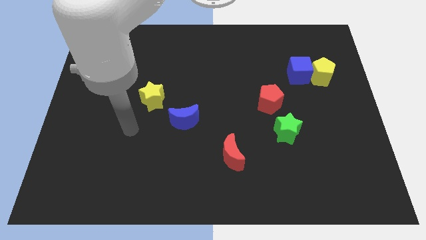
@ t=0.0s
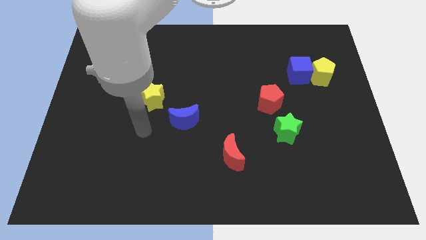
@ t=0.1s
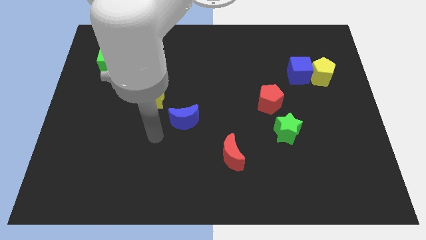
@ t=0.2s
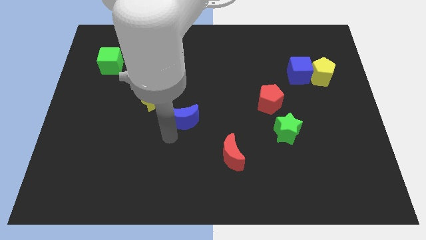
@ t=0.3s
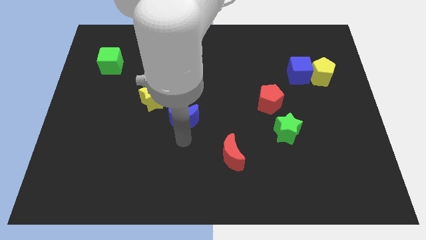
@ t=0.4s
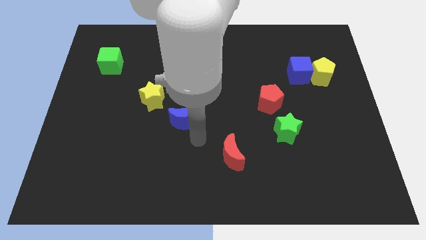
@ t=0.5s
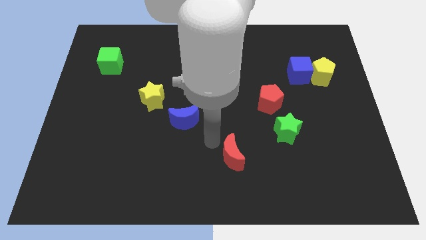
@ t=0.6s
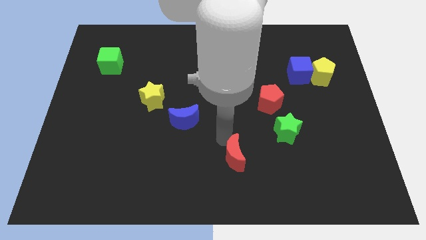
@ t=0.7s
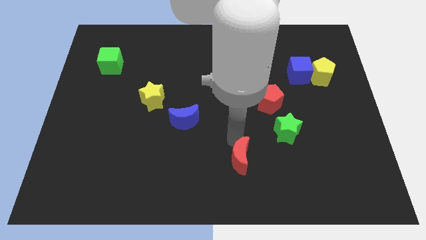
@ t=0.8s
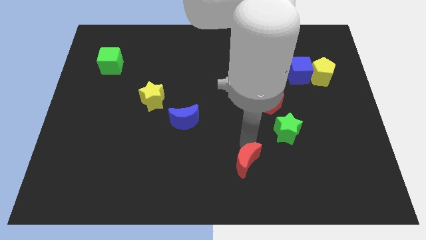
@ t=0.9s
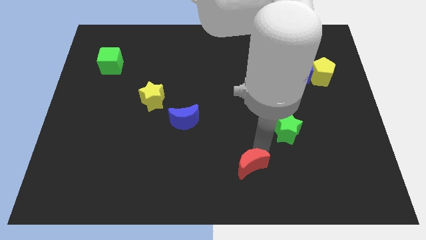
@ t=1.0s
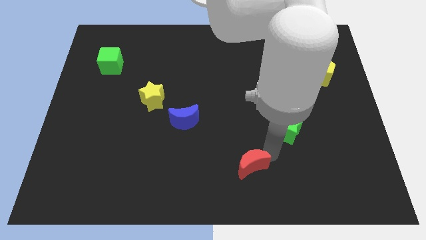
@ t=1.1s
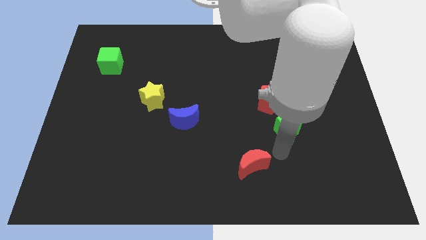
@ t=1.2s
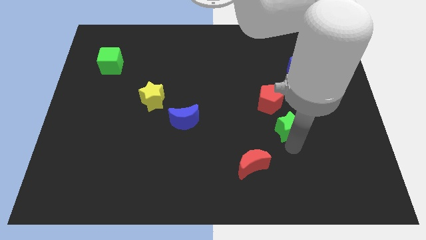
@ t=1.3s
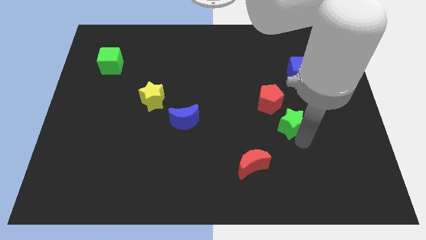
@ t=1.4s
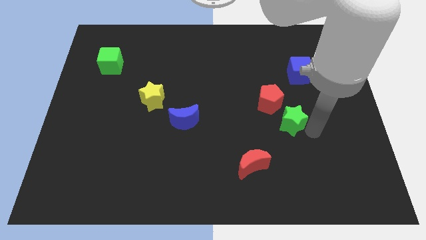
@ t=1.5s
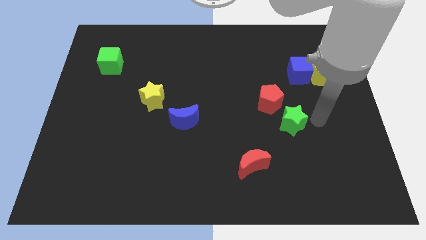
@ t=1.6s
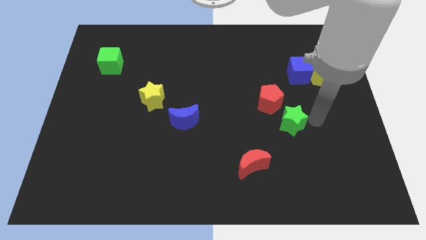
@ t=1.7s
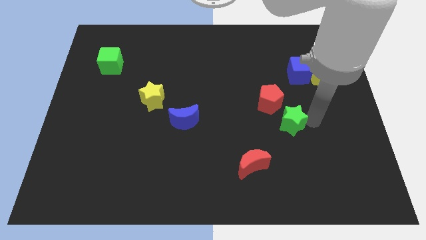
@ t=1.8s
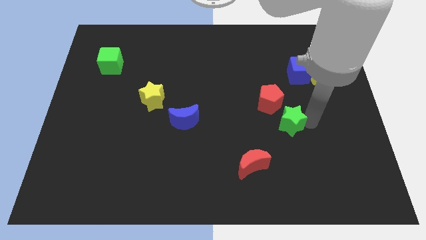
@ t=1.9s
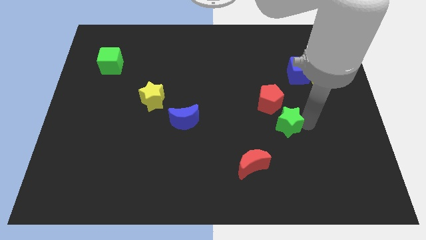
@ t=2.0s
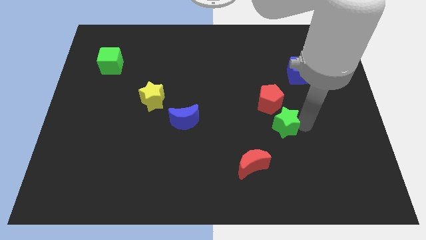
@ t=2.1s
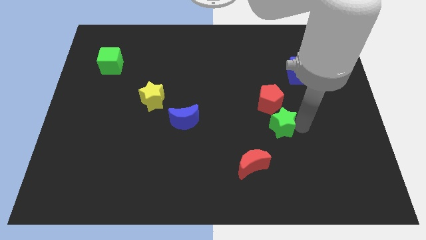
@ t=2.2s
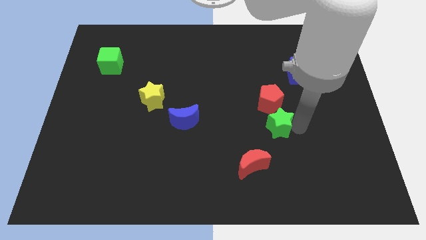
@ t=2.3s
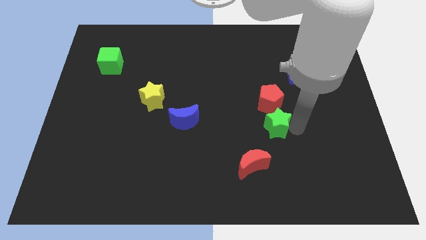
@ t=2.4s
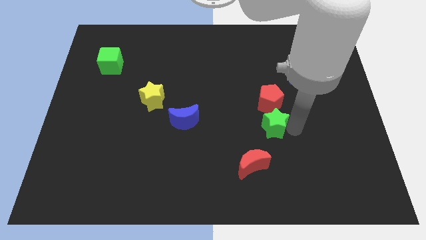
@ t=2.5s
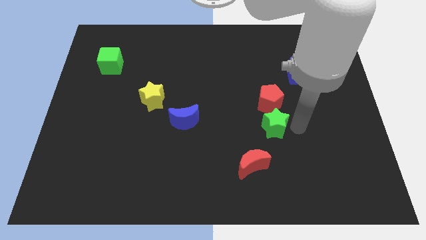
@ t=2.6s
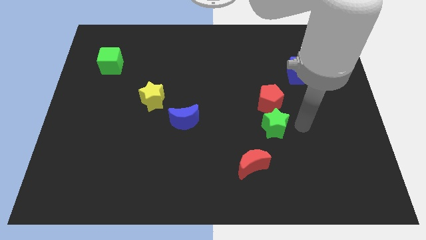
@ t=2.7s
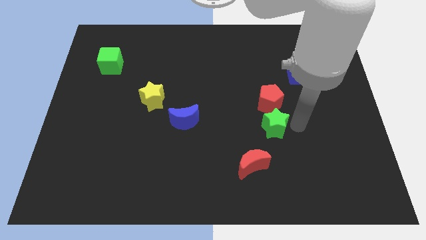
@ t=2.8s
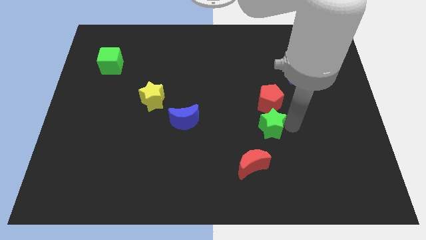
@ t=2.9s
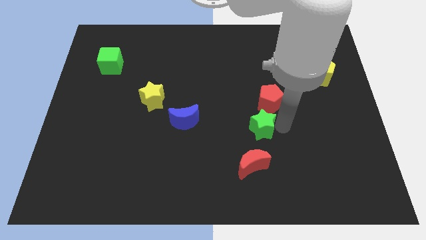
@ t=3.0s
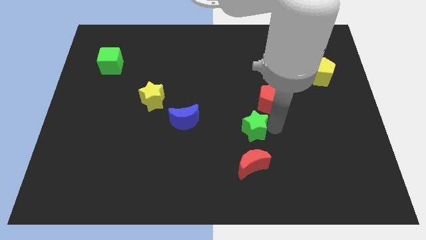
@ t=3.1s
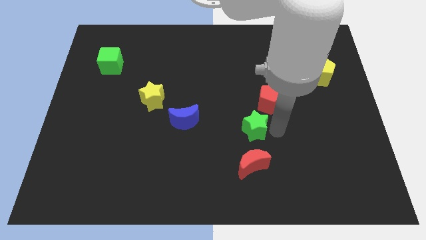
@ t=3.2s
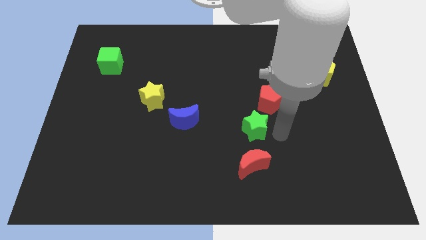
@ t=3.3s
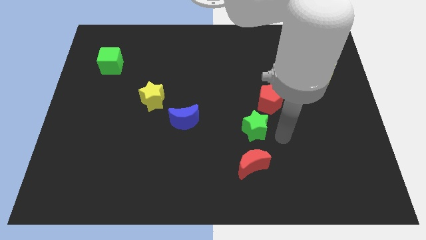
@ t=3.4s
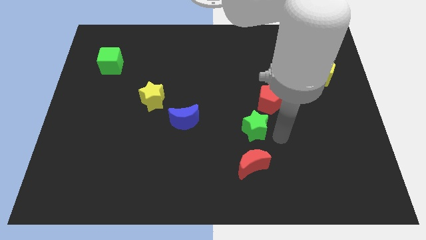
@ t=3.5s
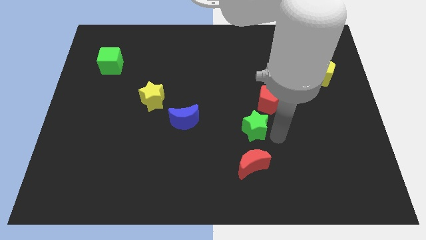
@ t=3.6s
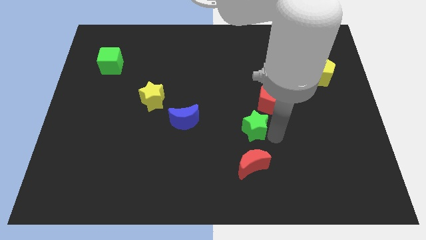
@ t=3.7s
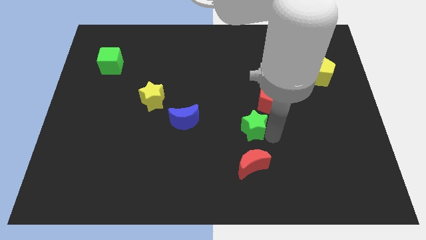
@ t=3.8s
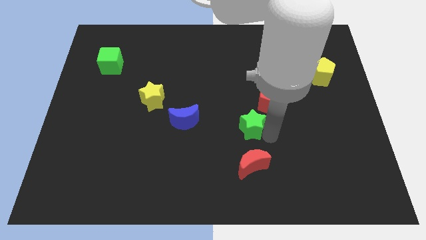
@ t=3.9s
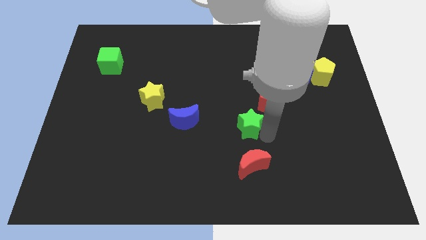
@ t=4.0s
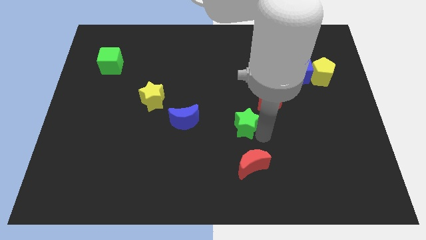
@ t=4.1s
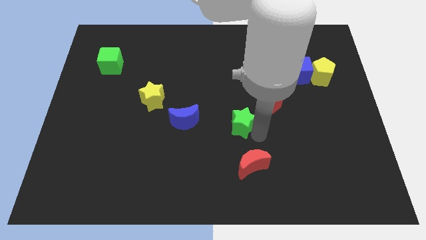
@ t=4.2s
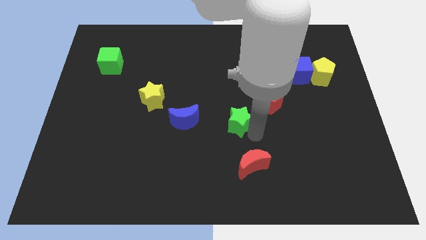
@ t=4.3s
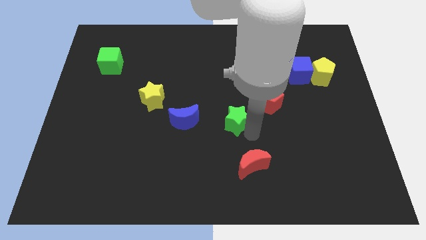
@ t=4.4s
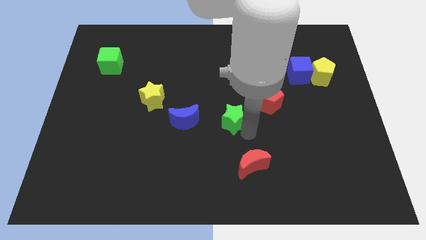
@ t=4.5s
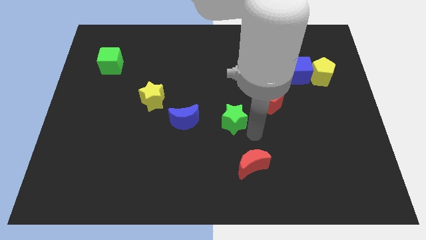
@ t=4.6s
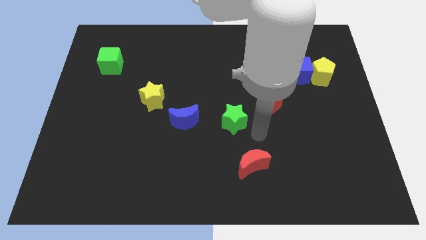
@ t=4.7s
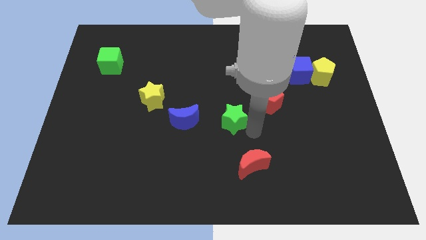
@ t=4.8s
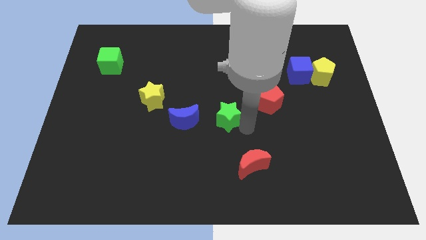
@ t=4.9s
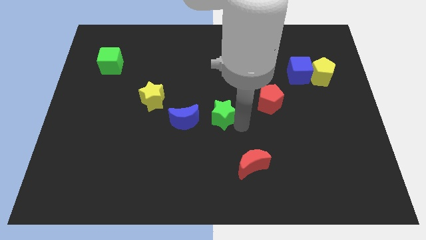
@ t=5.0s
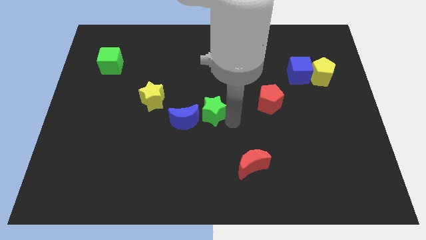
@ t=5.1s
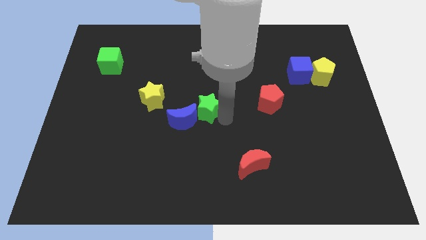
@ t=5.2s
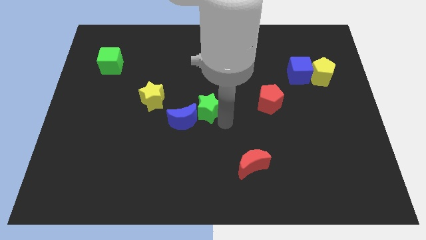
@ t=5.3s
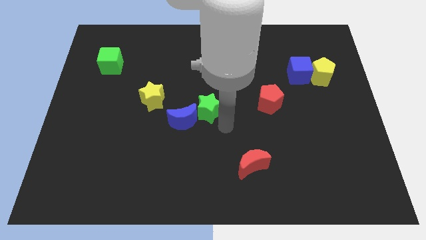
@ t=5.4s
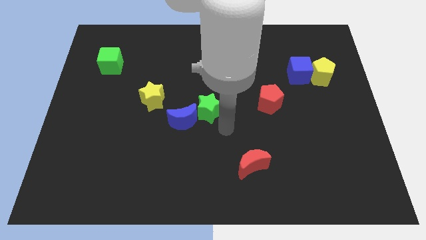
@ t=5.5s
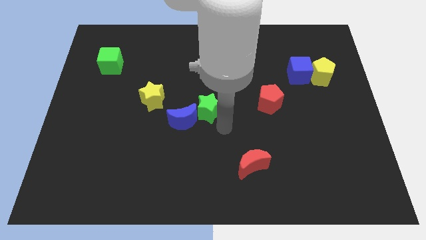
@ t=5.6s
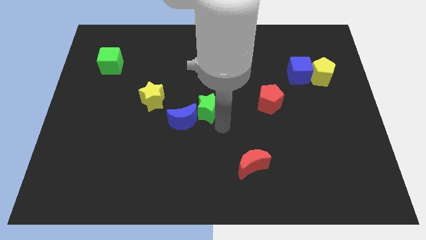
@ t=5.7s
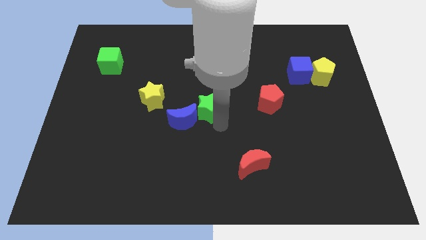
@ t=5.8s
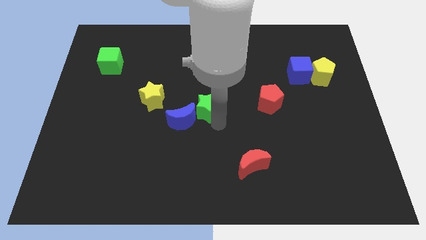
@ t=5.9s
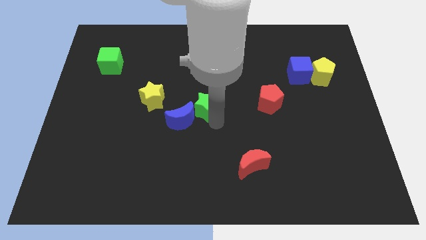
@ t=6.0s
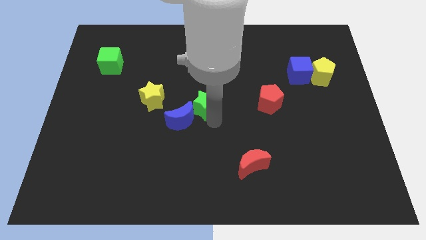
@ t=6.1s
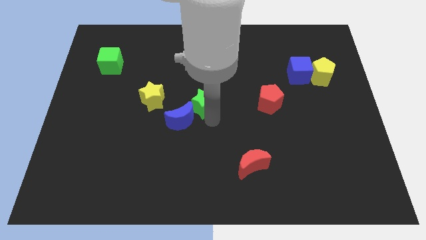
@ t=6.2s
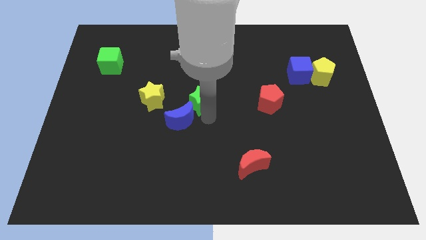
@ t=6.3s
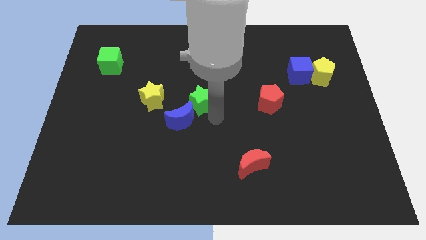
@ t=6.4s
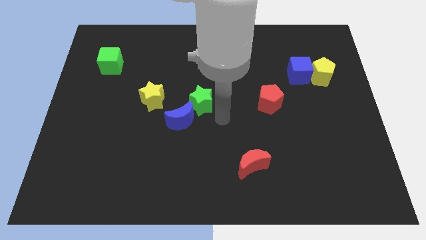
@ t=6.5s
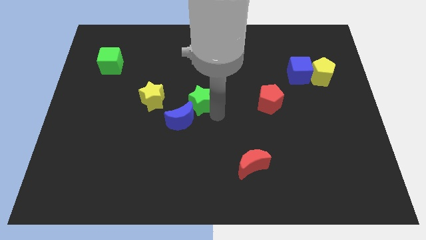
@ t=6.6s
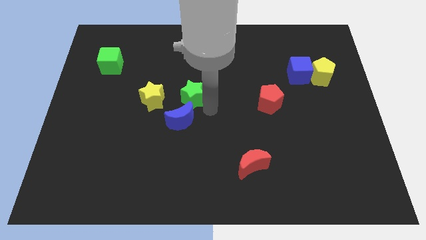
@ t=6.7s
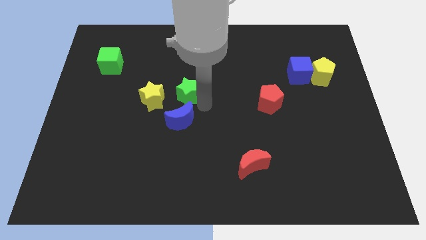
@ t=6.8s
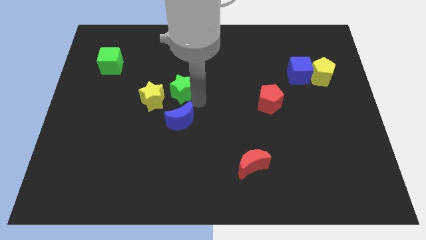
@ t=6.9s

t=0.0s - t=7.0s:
push the green star to the top right of the yellow star

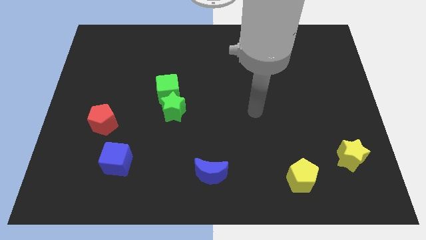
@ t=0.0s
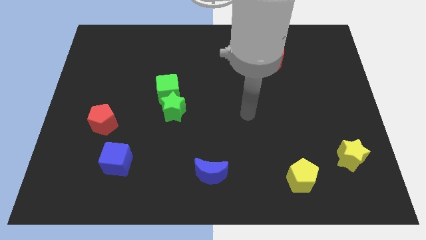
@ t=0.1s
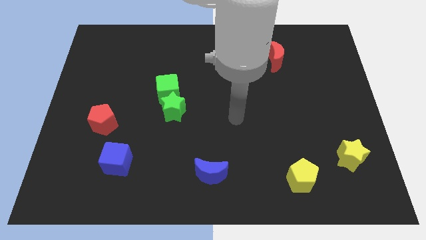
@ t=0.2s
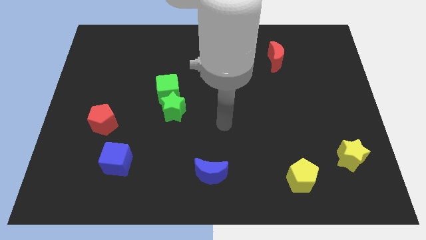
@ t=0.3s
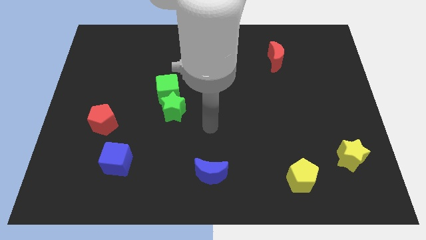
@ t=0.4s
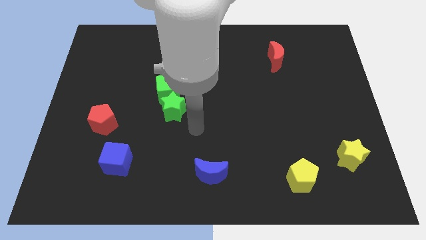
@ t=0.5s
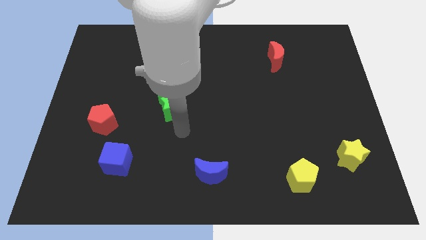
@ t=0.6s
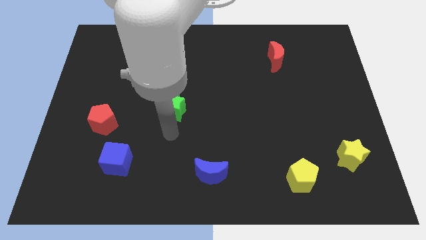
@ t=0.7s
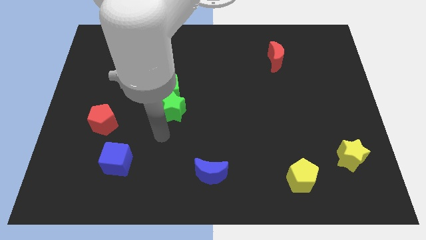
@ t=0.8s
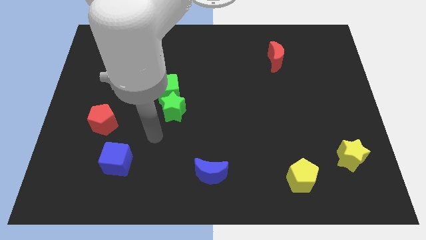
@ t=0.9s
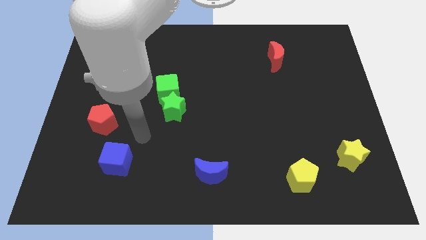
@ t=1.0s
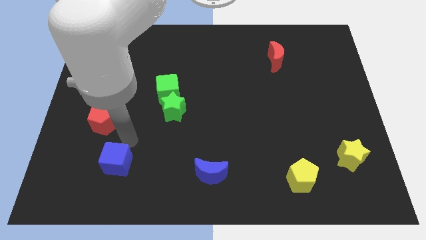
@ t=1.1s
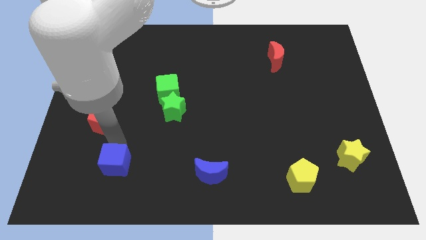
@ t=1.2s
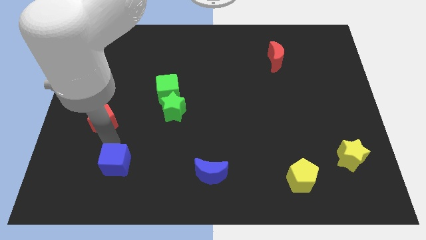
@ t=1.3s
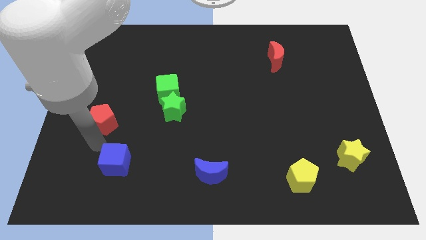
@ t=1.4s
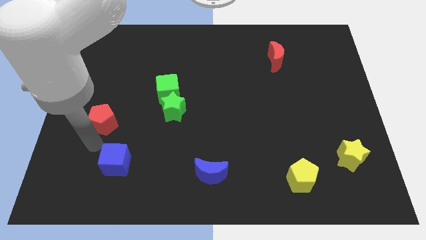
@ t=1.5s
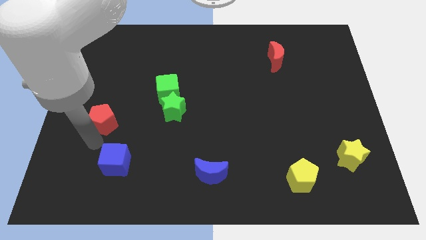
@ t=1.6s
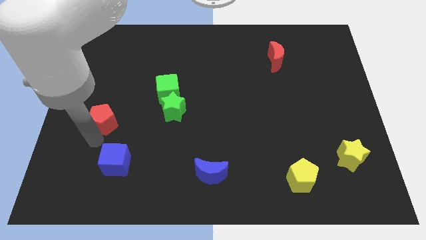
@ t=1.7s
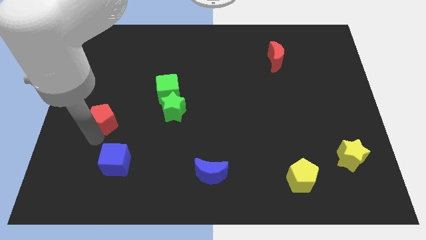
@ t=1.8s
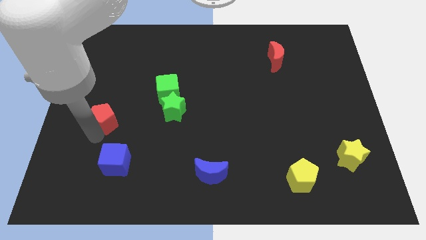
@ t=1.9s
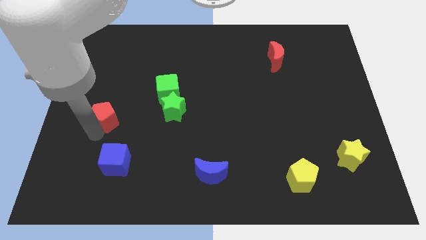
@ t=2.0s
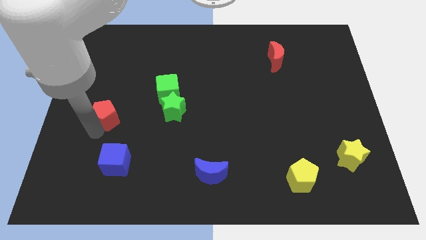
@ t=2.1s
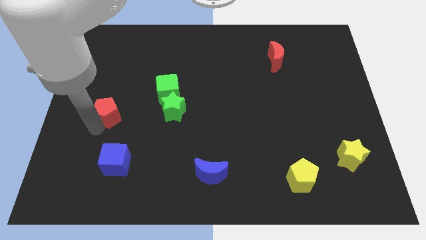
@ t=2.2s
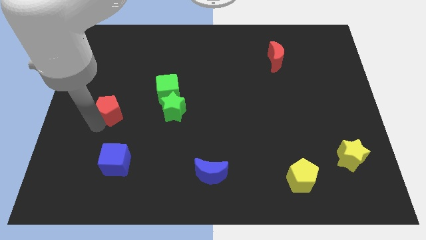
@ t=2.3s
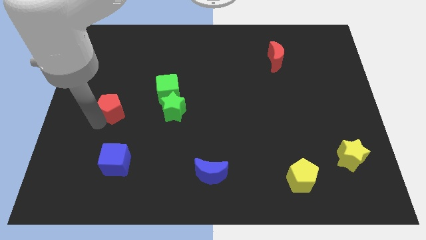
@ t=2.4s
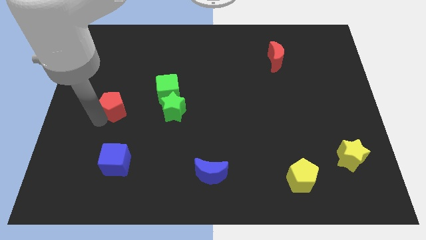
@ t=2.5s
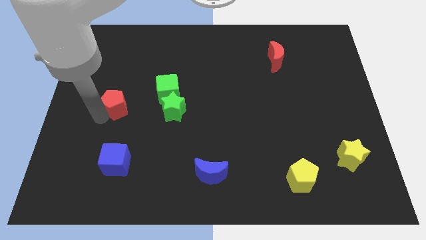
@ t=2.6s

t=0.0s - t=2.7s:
put the red pentagon to the left side of the green cube
